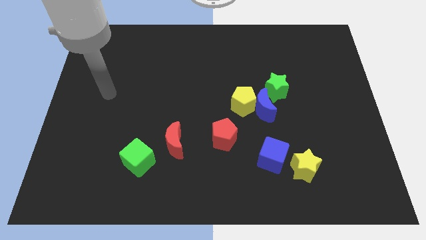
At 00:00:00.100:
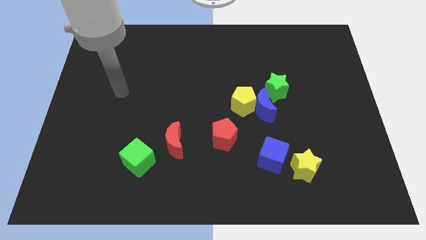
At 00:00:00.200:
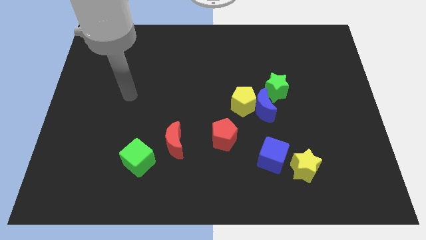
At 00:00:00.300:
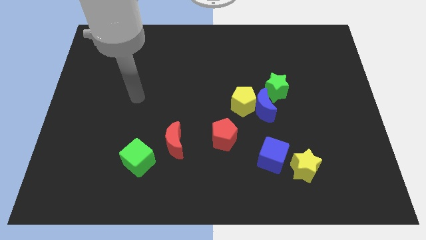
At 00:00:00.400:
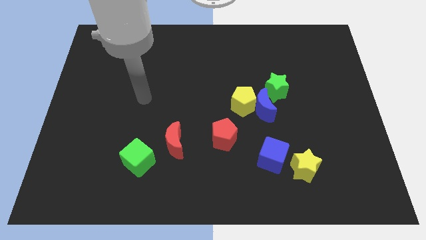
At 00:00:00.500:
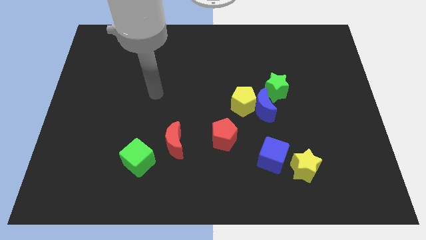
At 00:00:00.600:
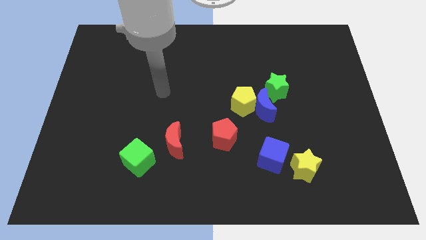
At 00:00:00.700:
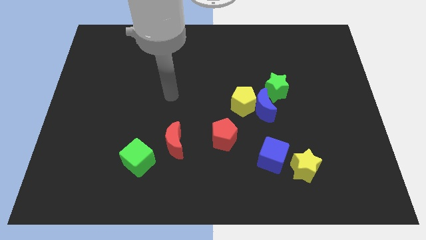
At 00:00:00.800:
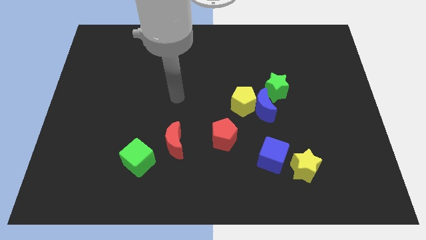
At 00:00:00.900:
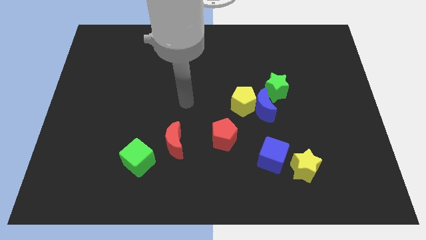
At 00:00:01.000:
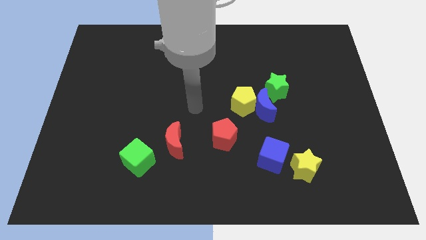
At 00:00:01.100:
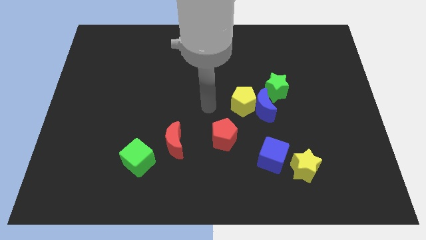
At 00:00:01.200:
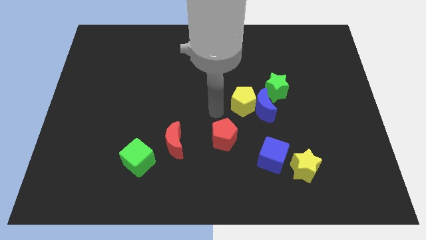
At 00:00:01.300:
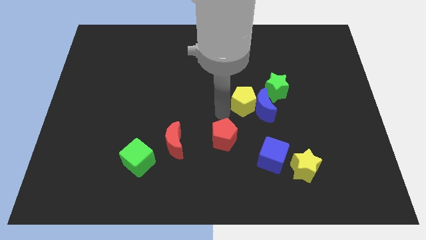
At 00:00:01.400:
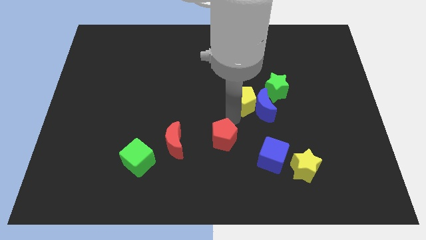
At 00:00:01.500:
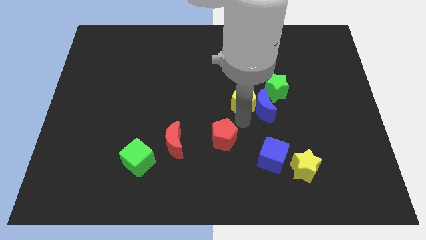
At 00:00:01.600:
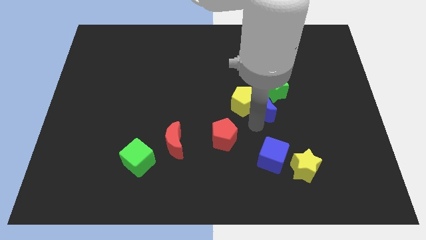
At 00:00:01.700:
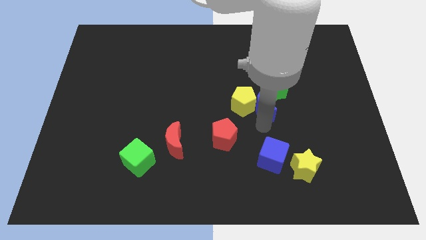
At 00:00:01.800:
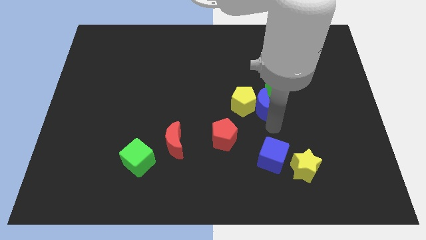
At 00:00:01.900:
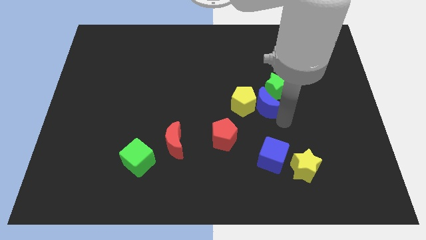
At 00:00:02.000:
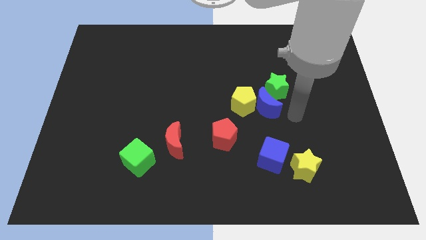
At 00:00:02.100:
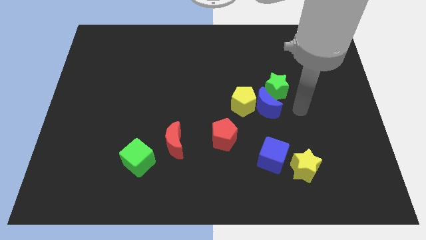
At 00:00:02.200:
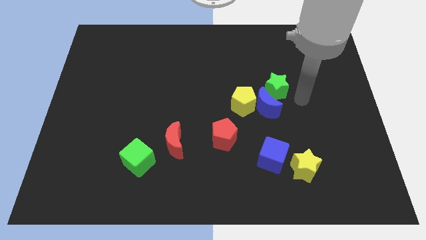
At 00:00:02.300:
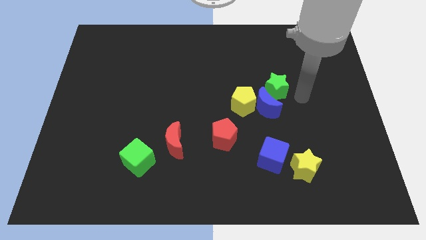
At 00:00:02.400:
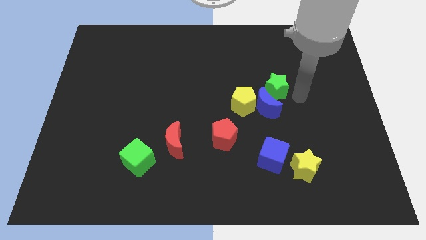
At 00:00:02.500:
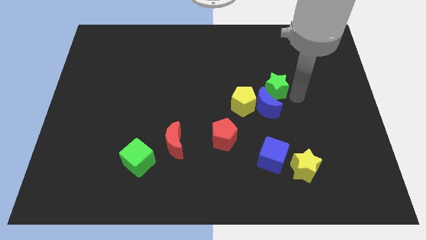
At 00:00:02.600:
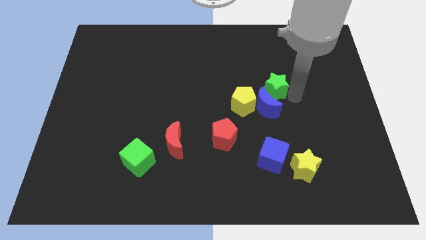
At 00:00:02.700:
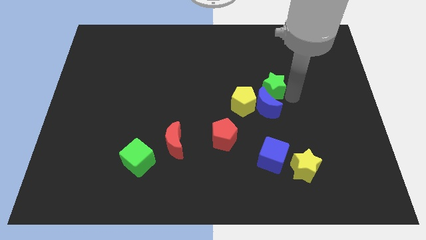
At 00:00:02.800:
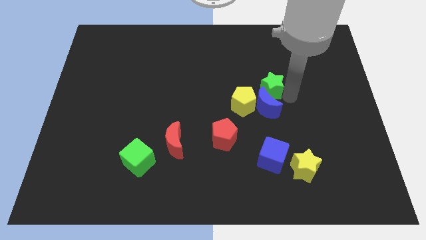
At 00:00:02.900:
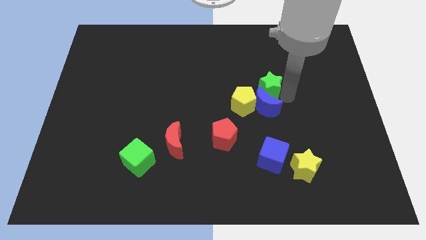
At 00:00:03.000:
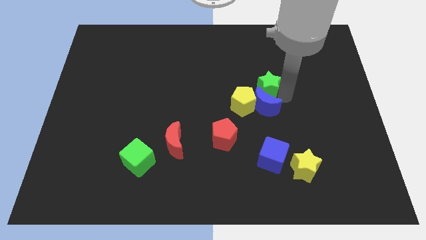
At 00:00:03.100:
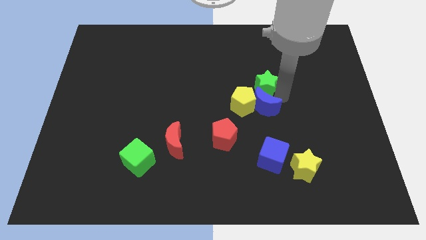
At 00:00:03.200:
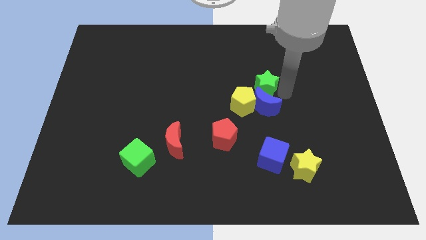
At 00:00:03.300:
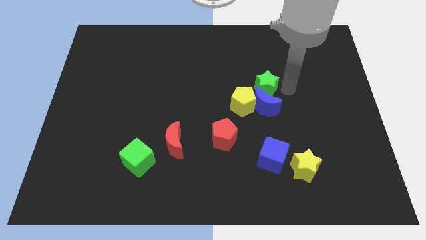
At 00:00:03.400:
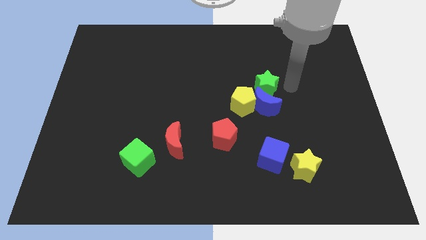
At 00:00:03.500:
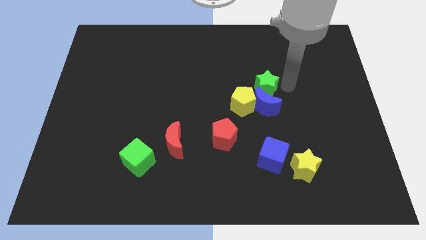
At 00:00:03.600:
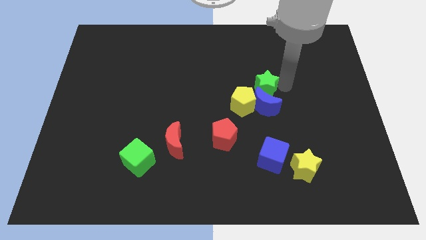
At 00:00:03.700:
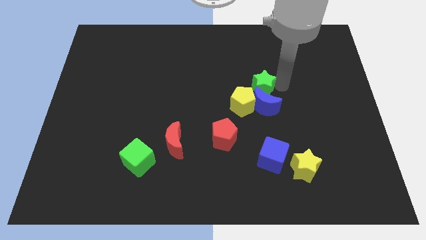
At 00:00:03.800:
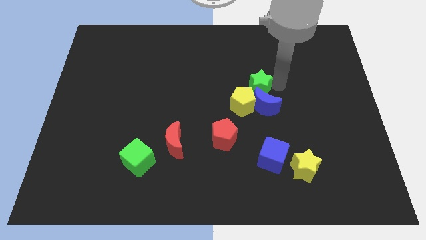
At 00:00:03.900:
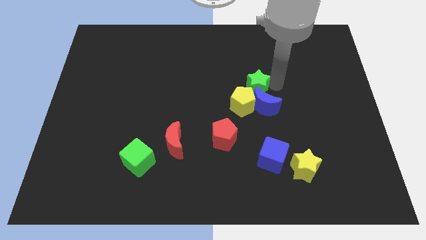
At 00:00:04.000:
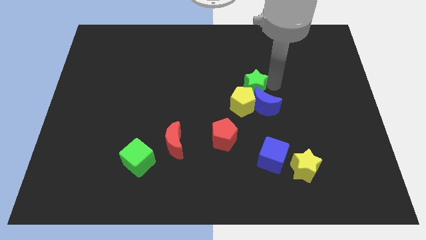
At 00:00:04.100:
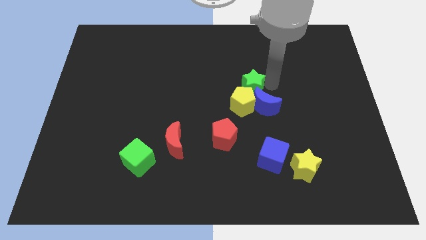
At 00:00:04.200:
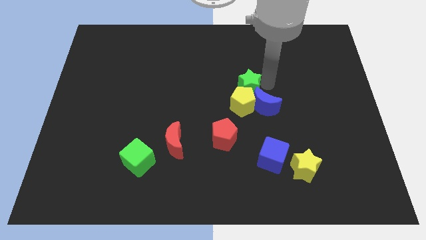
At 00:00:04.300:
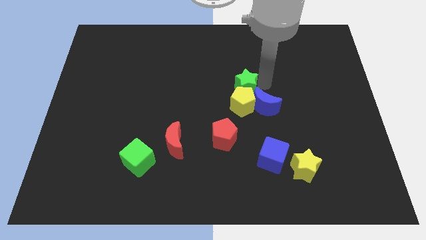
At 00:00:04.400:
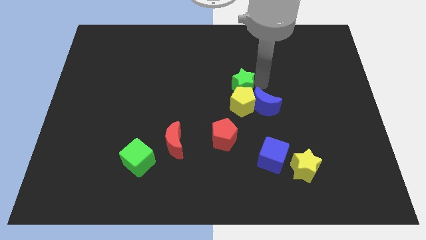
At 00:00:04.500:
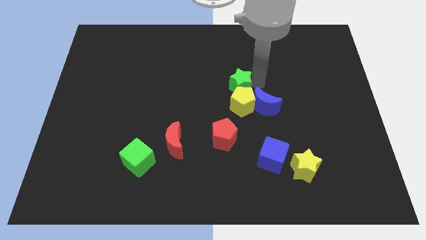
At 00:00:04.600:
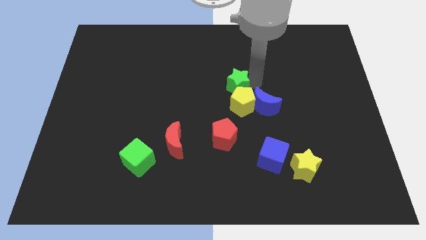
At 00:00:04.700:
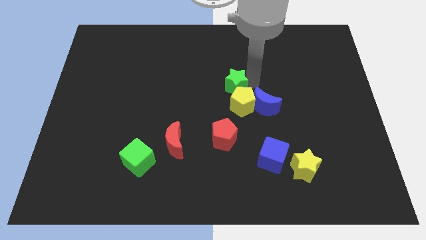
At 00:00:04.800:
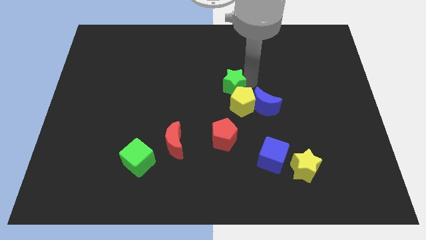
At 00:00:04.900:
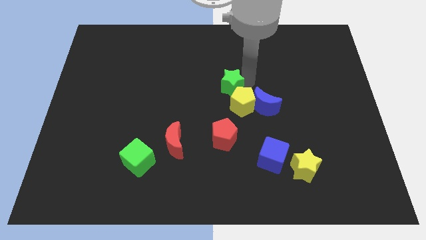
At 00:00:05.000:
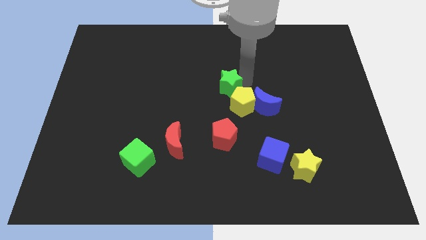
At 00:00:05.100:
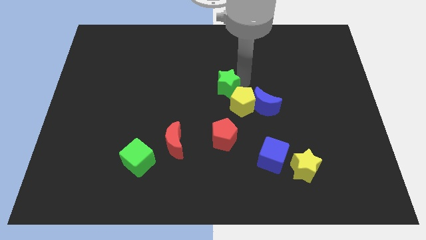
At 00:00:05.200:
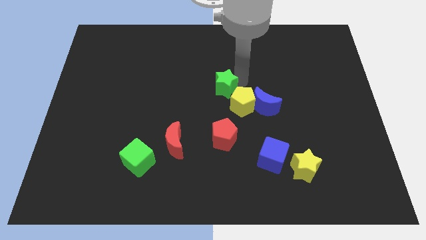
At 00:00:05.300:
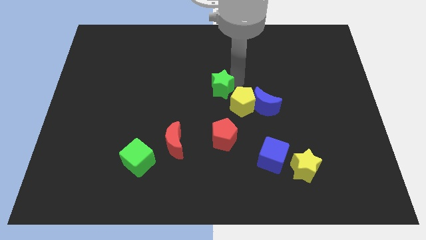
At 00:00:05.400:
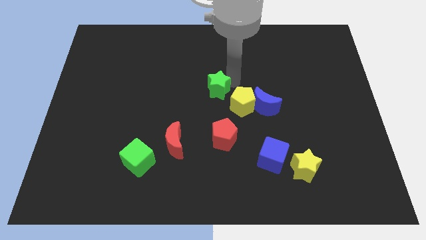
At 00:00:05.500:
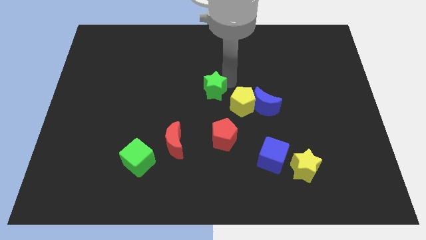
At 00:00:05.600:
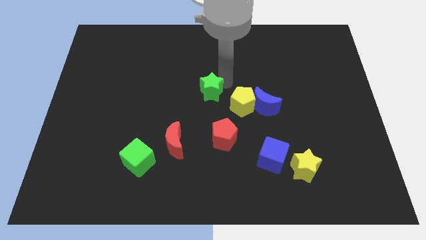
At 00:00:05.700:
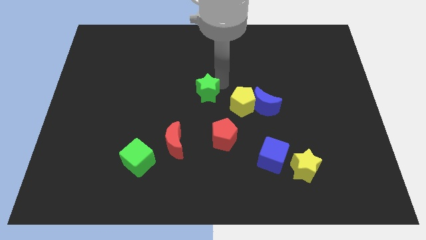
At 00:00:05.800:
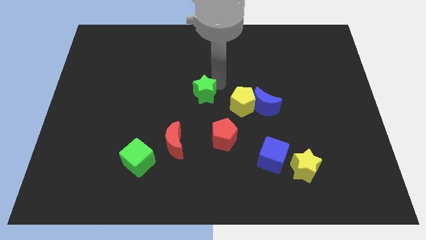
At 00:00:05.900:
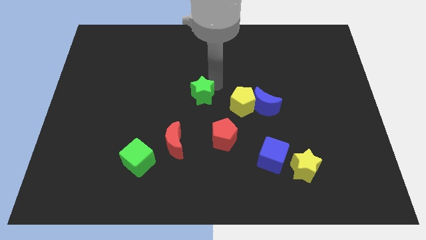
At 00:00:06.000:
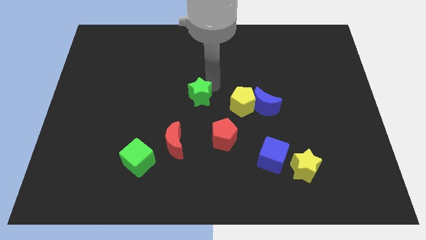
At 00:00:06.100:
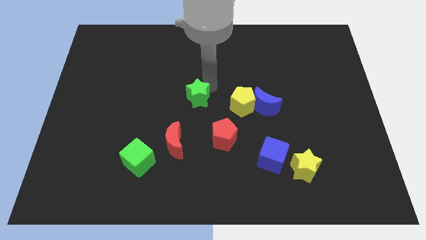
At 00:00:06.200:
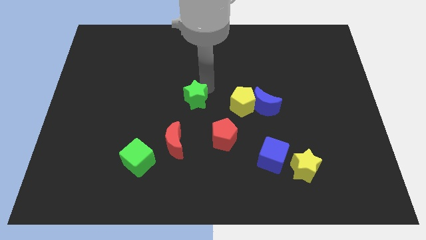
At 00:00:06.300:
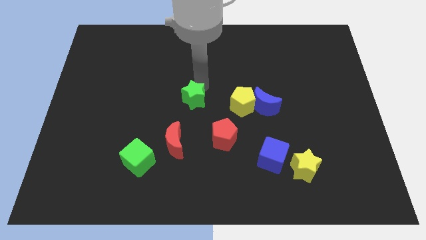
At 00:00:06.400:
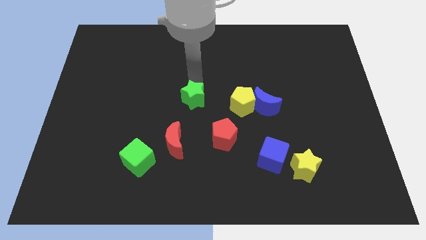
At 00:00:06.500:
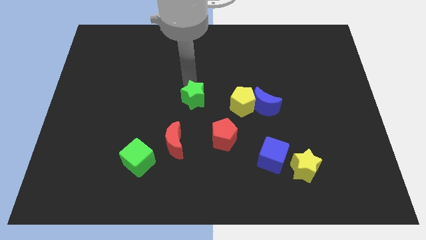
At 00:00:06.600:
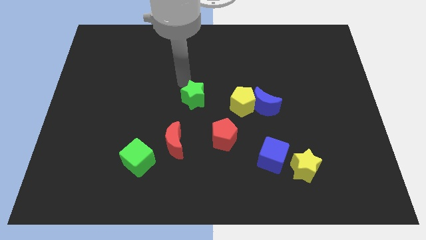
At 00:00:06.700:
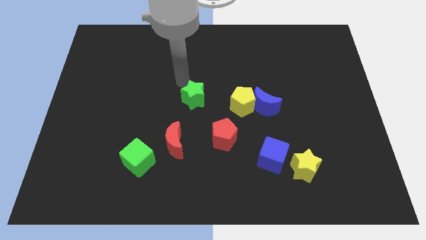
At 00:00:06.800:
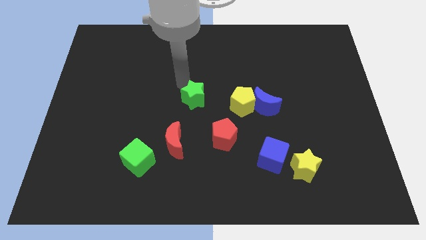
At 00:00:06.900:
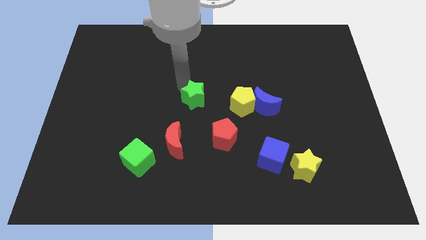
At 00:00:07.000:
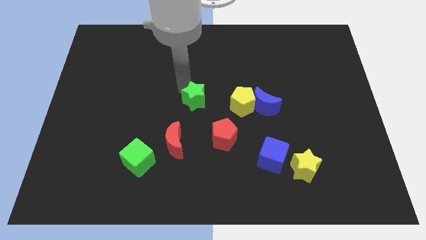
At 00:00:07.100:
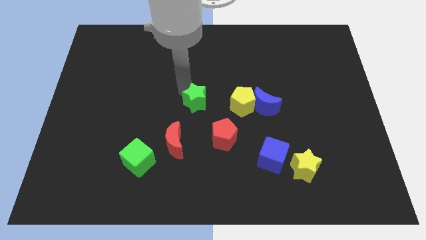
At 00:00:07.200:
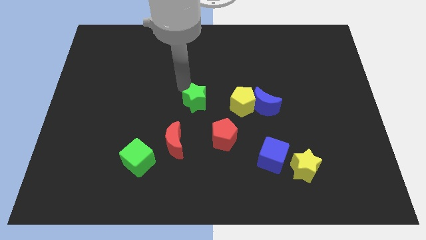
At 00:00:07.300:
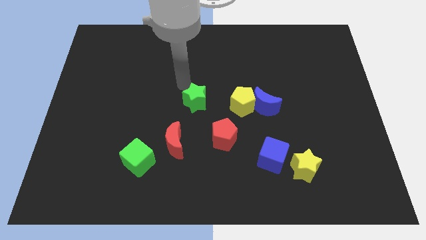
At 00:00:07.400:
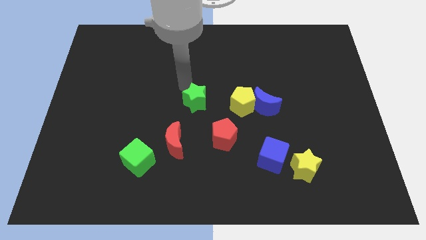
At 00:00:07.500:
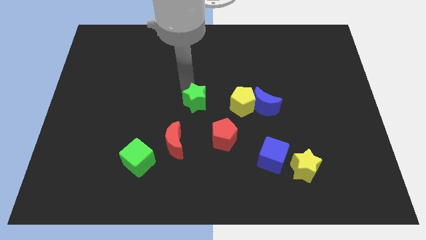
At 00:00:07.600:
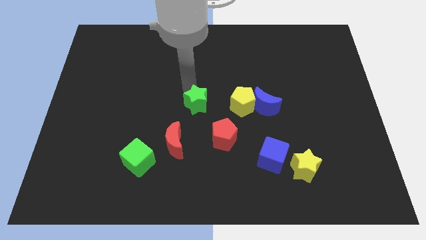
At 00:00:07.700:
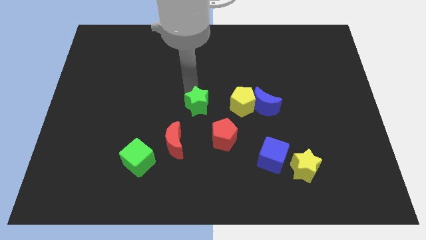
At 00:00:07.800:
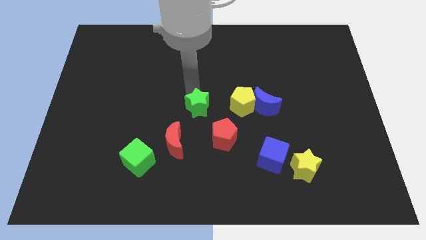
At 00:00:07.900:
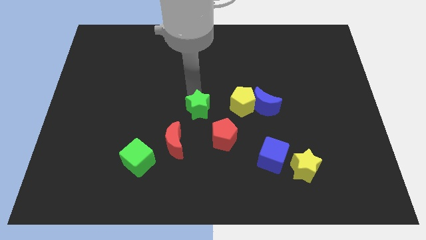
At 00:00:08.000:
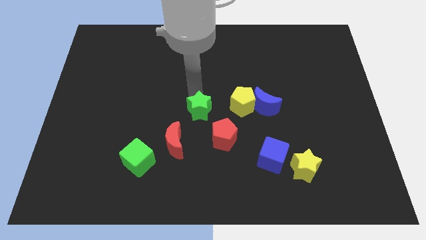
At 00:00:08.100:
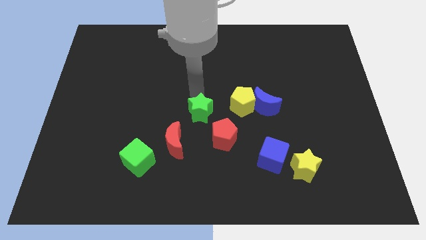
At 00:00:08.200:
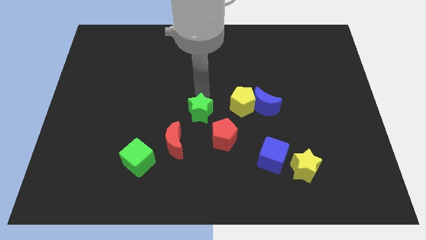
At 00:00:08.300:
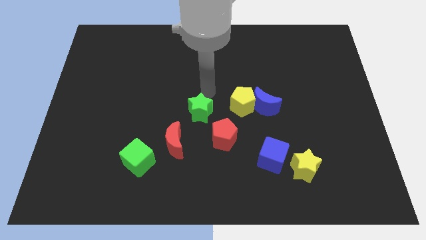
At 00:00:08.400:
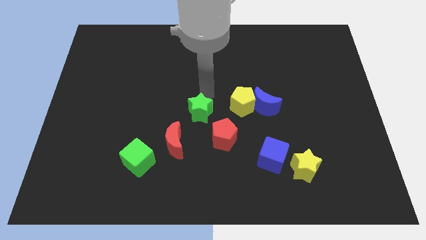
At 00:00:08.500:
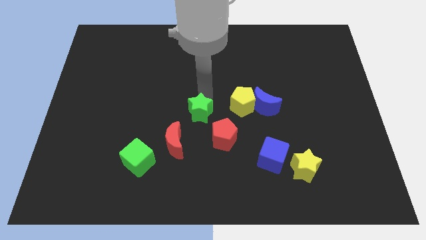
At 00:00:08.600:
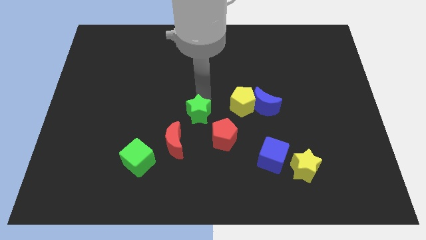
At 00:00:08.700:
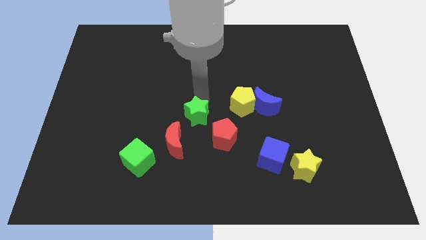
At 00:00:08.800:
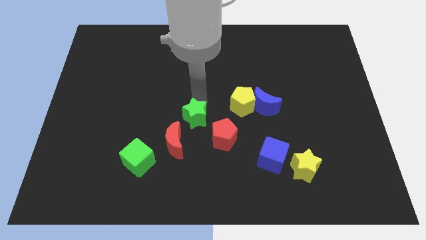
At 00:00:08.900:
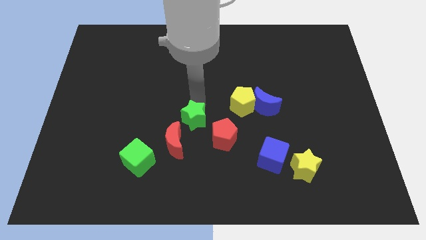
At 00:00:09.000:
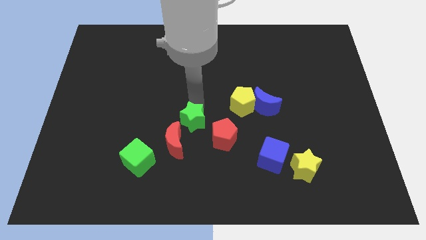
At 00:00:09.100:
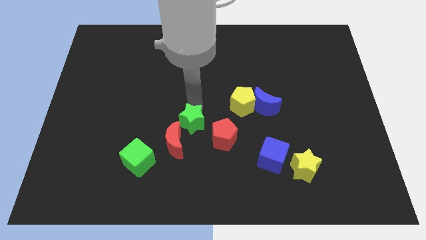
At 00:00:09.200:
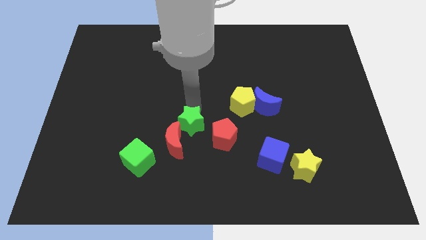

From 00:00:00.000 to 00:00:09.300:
move the green star to the red moon
